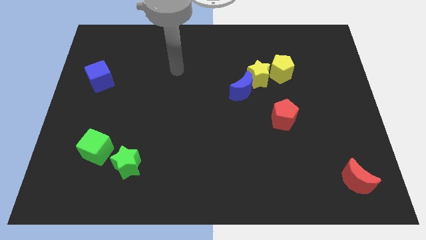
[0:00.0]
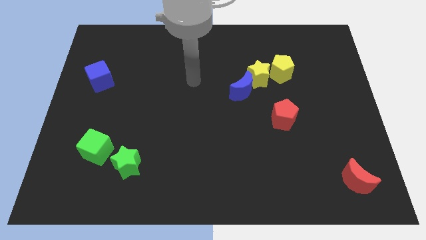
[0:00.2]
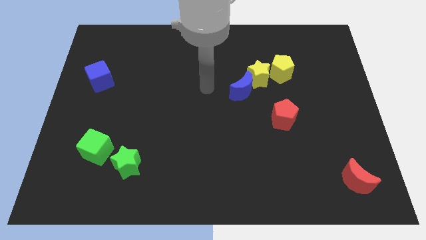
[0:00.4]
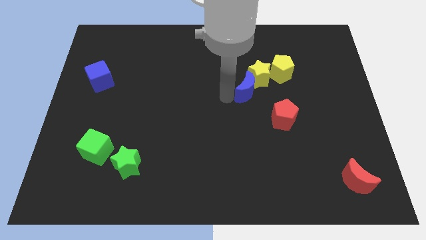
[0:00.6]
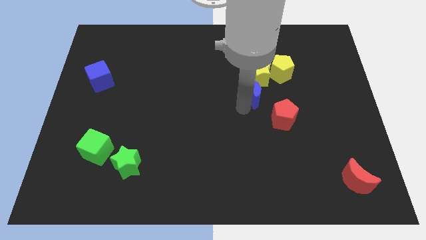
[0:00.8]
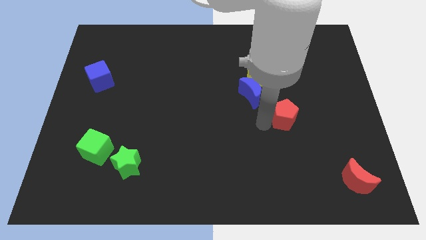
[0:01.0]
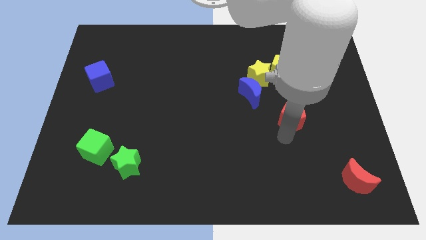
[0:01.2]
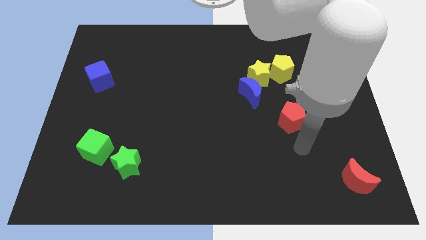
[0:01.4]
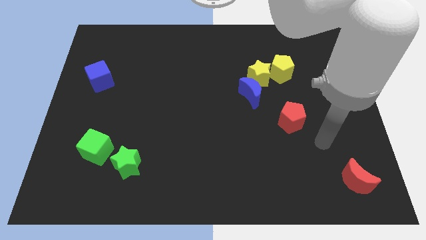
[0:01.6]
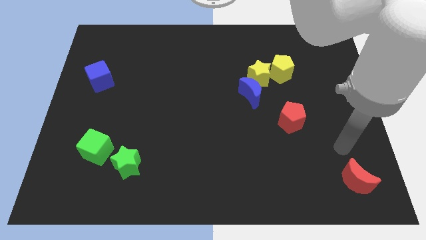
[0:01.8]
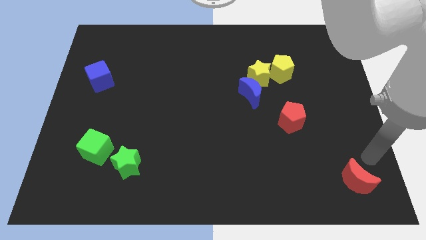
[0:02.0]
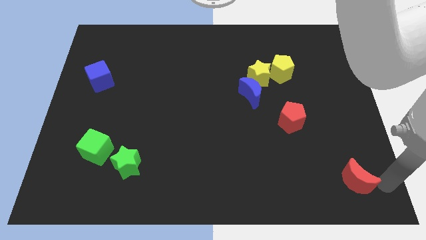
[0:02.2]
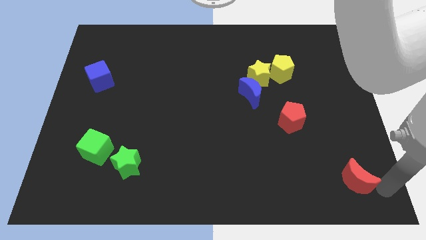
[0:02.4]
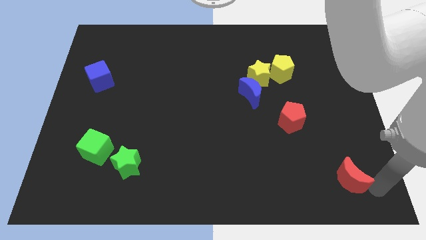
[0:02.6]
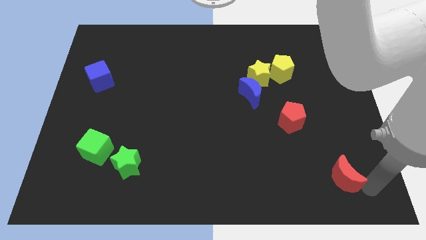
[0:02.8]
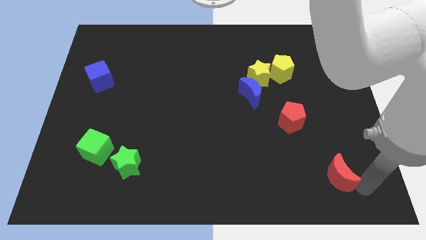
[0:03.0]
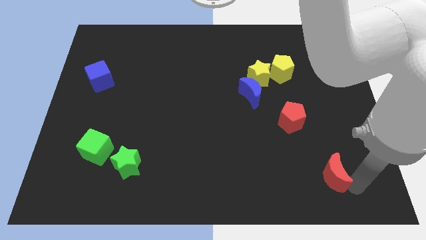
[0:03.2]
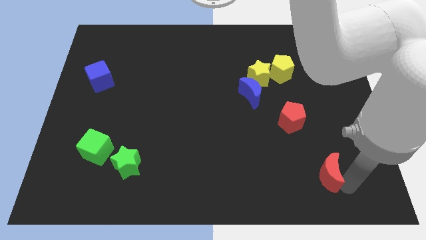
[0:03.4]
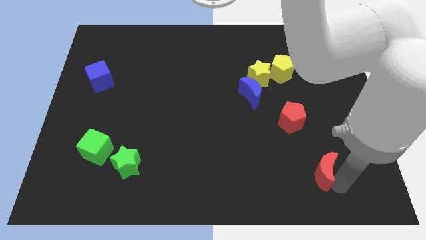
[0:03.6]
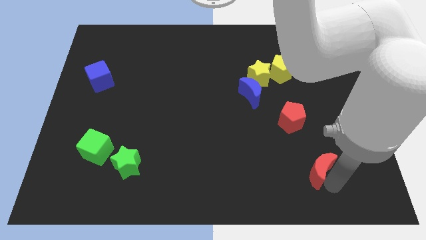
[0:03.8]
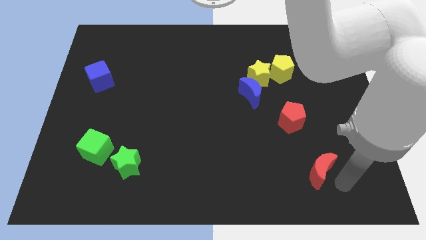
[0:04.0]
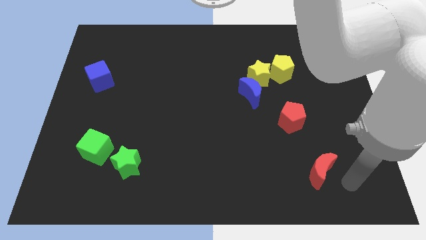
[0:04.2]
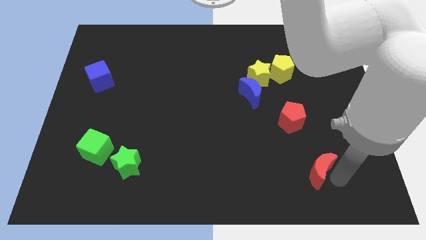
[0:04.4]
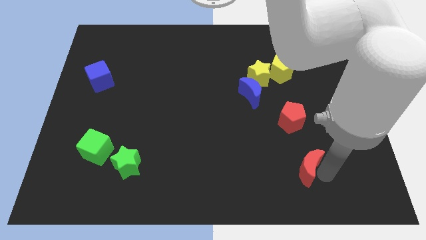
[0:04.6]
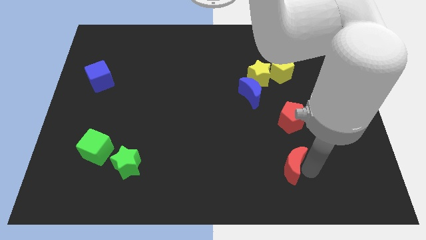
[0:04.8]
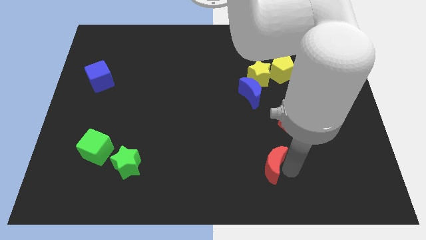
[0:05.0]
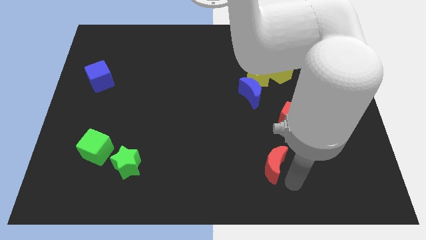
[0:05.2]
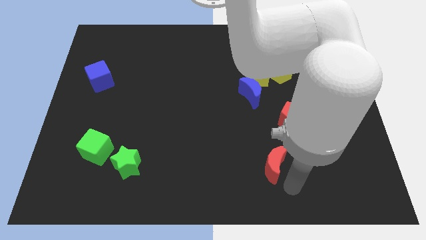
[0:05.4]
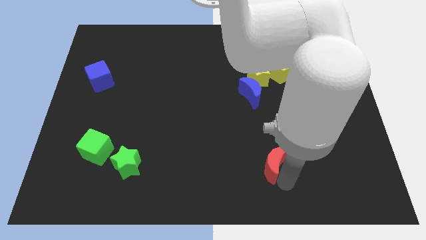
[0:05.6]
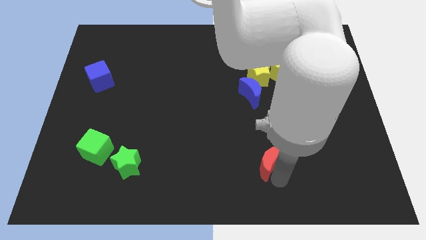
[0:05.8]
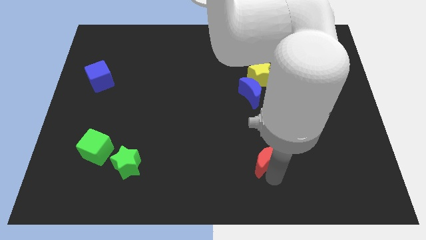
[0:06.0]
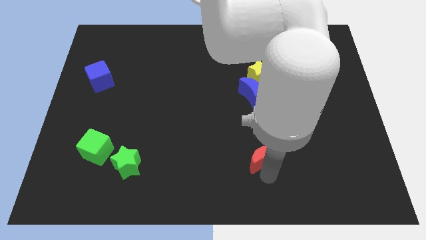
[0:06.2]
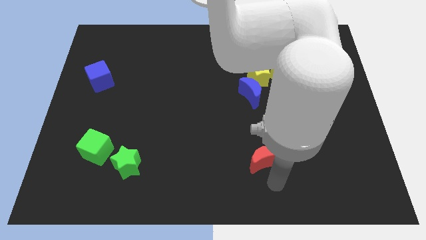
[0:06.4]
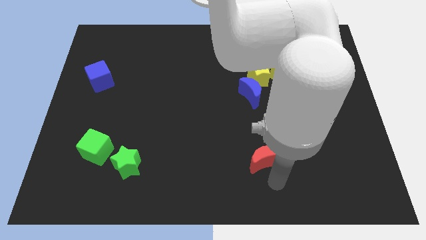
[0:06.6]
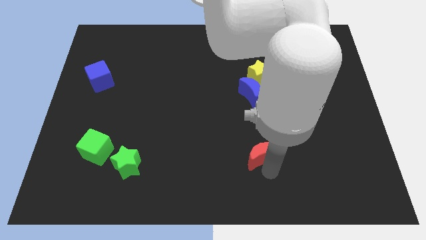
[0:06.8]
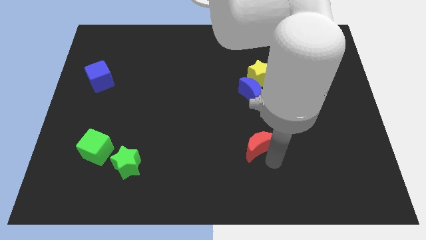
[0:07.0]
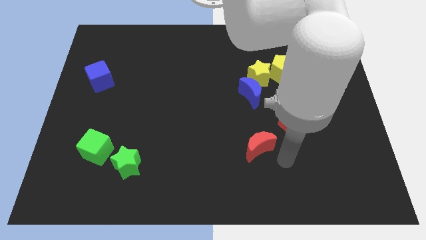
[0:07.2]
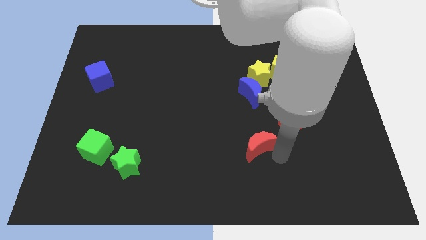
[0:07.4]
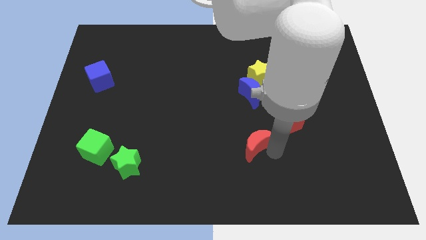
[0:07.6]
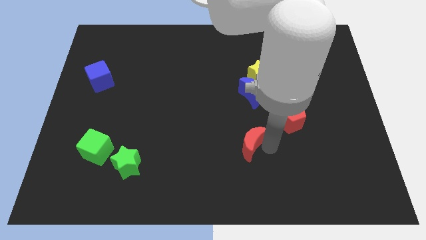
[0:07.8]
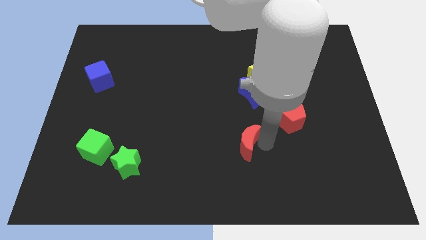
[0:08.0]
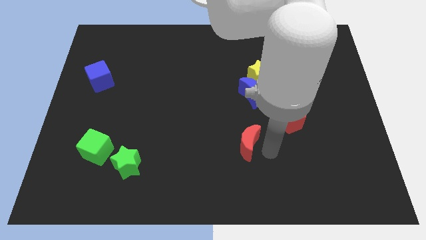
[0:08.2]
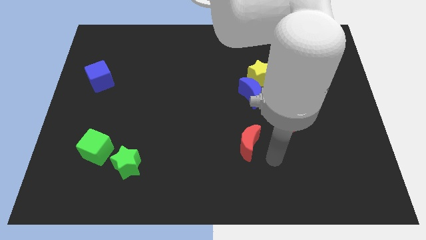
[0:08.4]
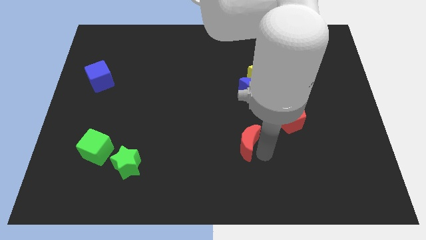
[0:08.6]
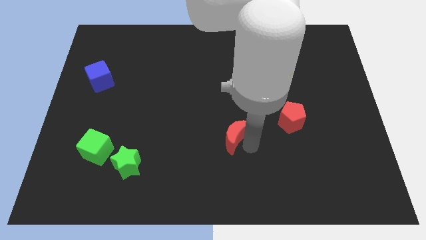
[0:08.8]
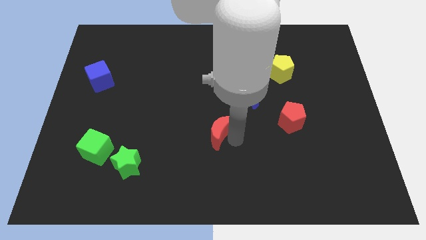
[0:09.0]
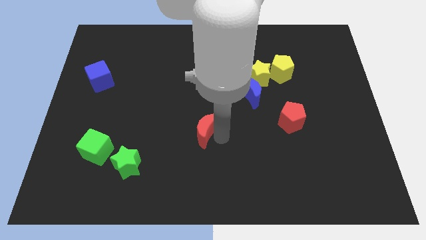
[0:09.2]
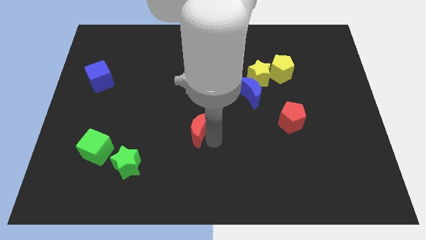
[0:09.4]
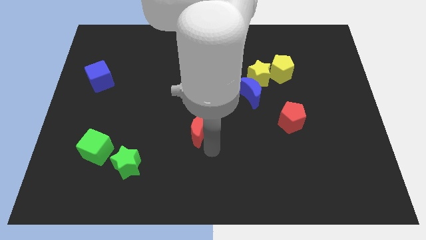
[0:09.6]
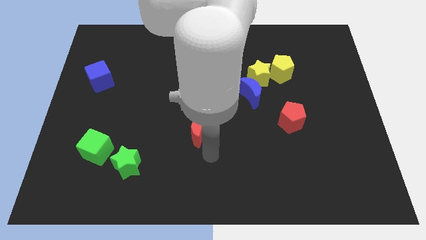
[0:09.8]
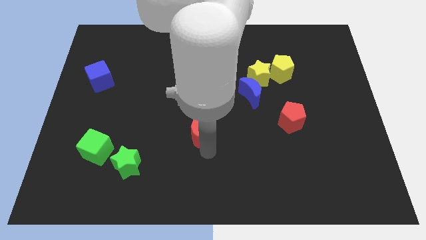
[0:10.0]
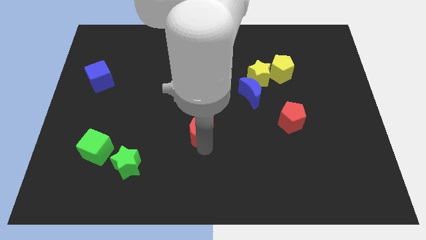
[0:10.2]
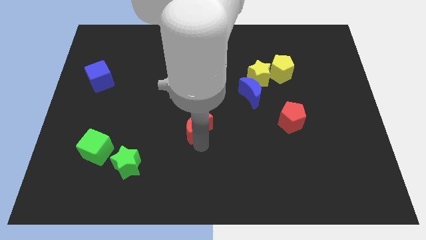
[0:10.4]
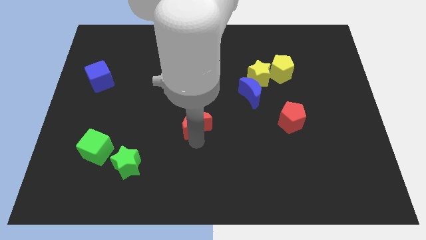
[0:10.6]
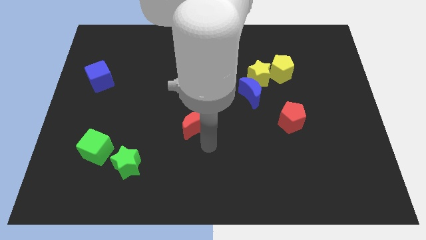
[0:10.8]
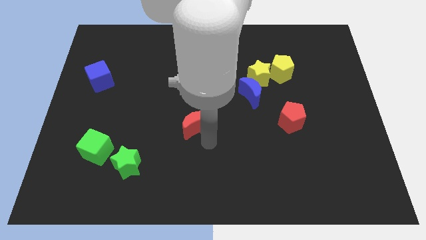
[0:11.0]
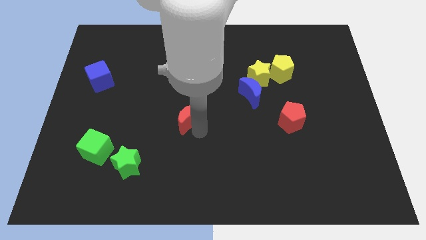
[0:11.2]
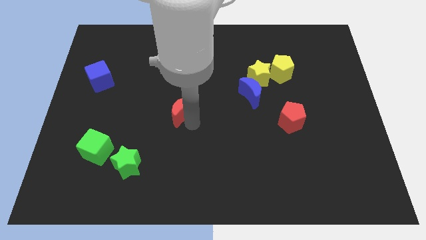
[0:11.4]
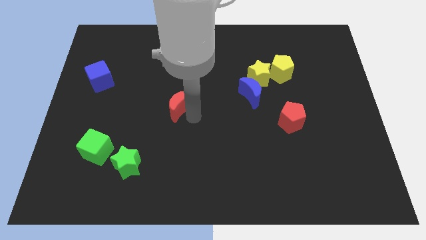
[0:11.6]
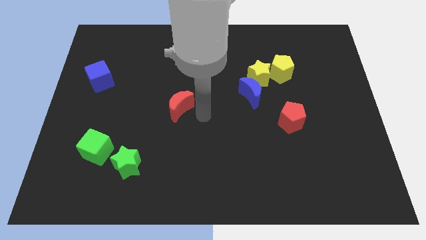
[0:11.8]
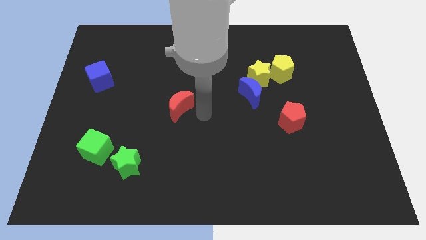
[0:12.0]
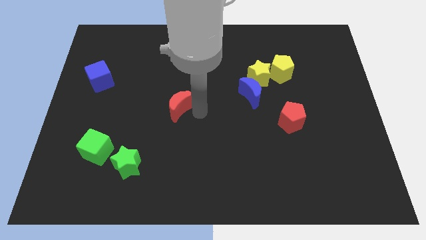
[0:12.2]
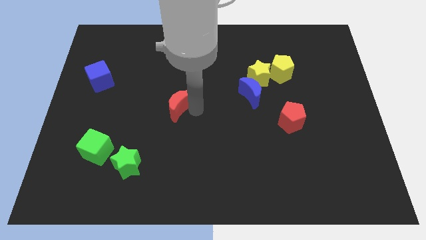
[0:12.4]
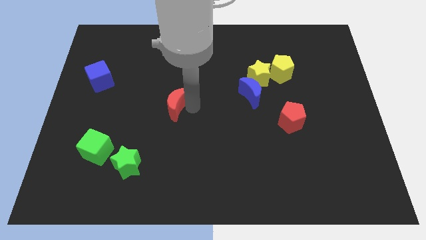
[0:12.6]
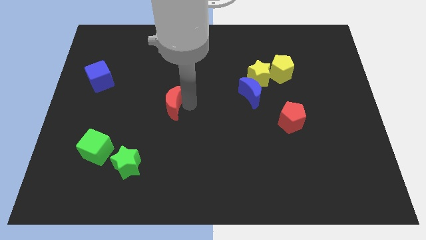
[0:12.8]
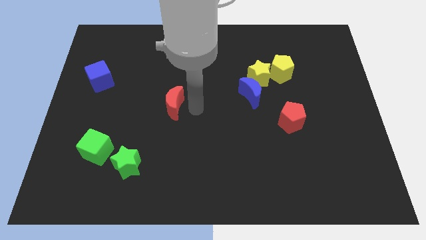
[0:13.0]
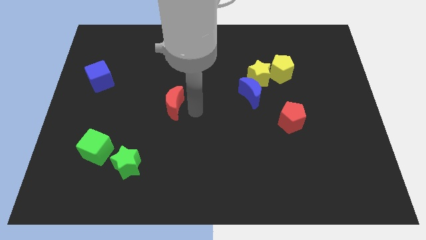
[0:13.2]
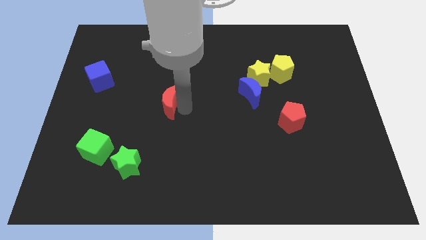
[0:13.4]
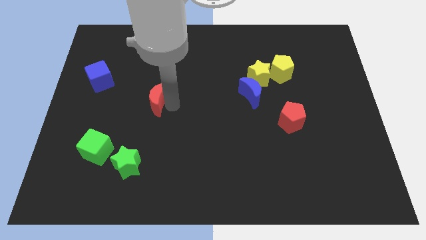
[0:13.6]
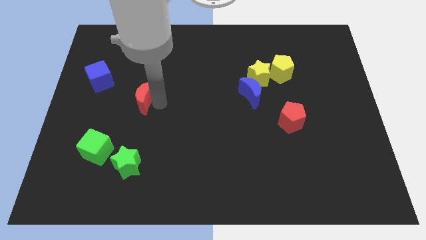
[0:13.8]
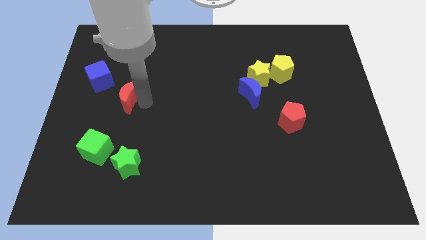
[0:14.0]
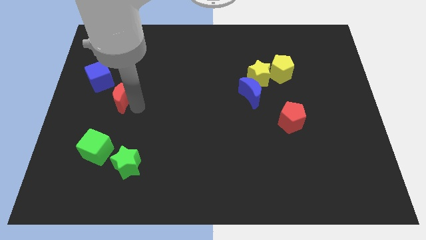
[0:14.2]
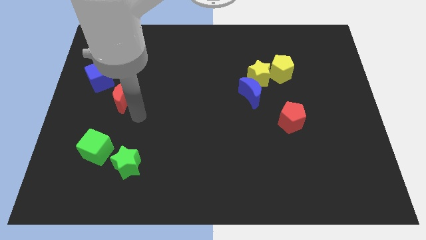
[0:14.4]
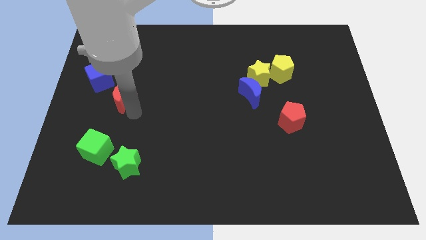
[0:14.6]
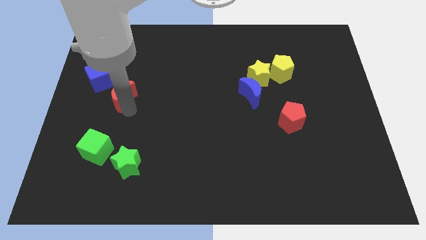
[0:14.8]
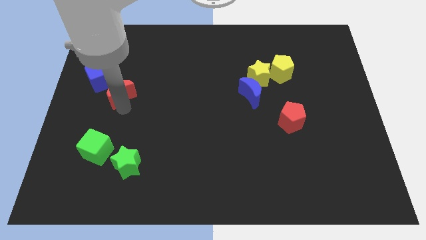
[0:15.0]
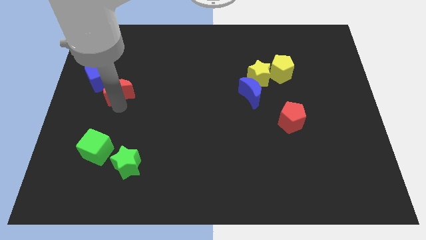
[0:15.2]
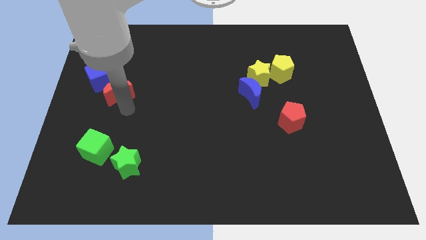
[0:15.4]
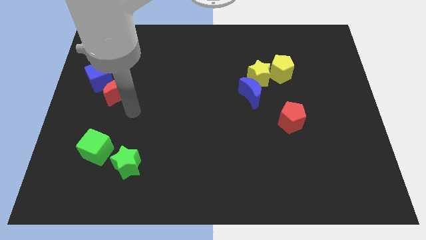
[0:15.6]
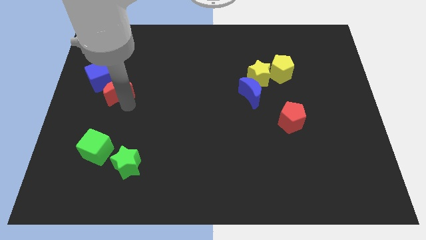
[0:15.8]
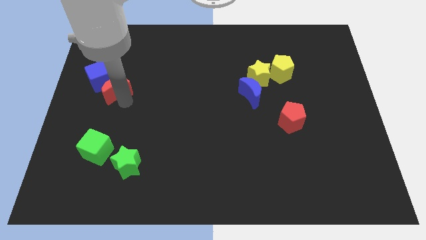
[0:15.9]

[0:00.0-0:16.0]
move the red moon next to the blue cube
